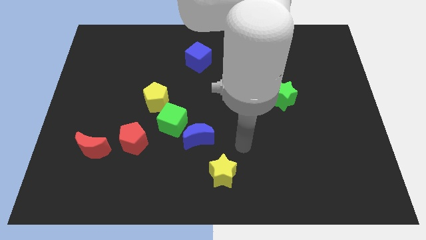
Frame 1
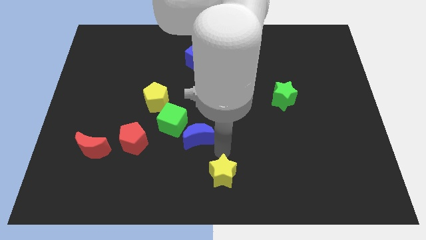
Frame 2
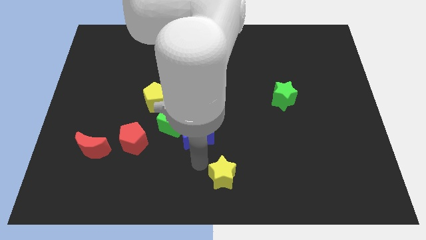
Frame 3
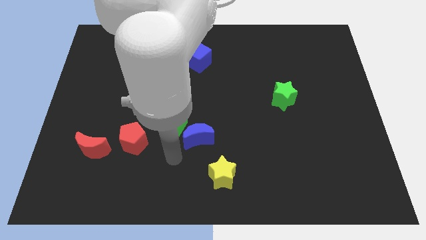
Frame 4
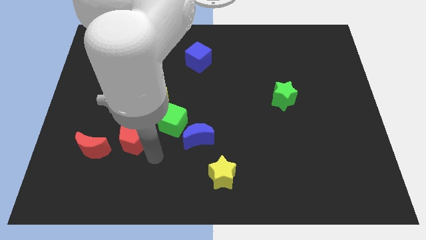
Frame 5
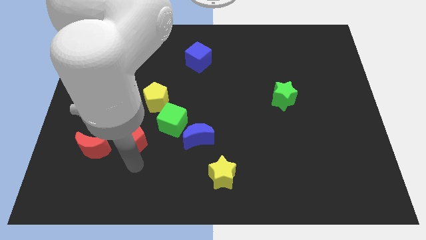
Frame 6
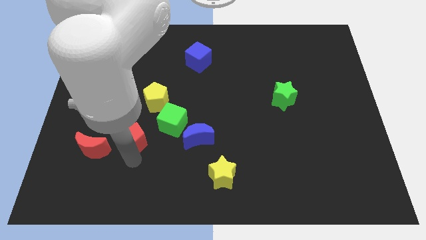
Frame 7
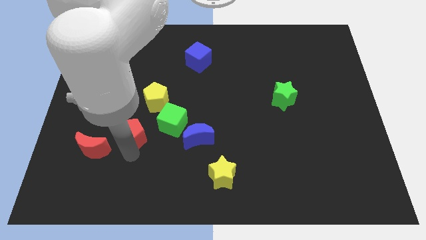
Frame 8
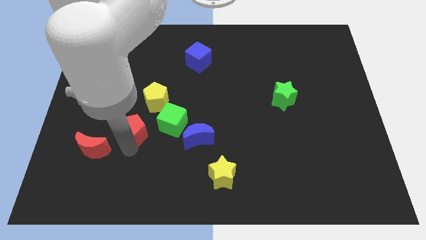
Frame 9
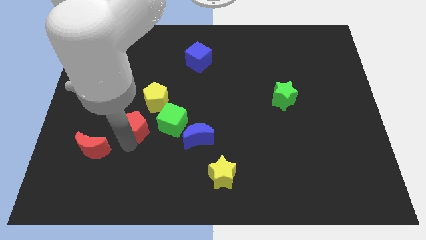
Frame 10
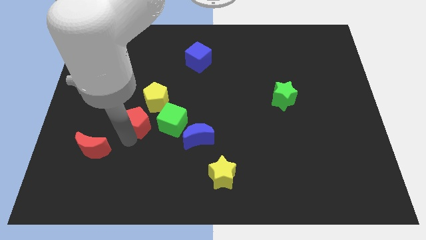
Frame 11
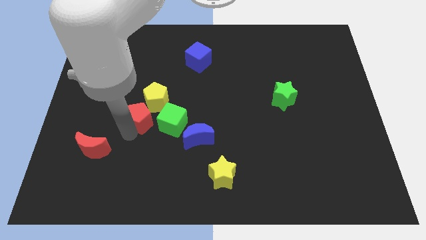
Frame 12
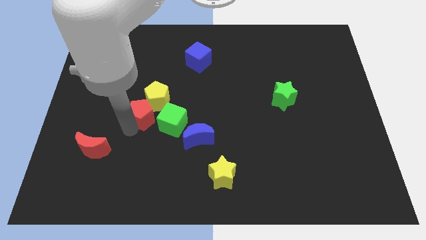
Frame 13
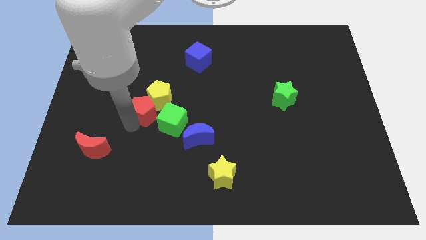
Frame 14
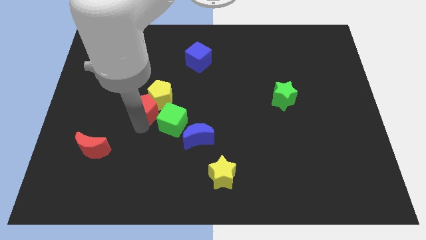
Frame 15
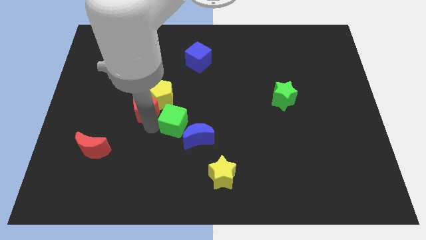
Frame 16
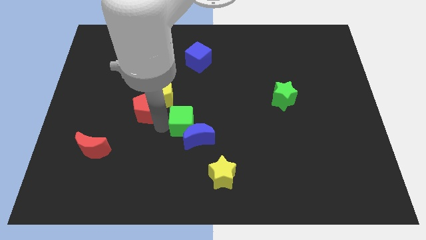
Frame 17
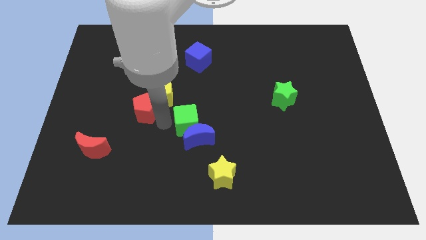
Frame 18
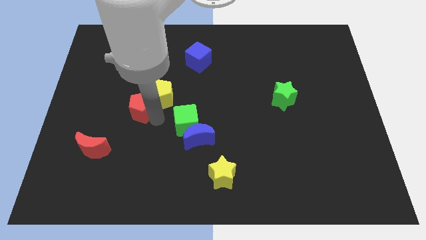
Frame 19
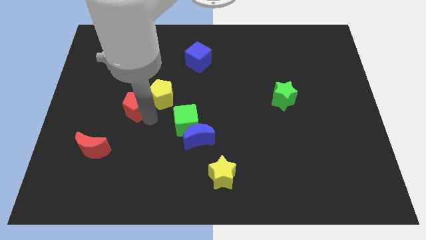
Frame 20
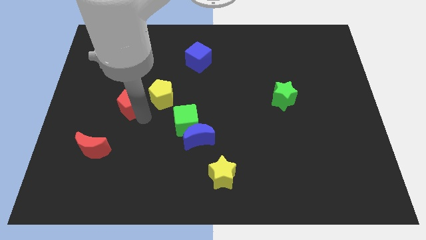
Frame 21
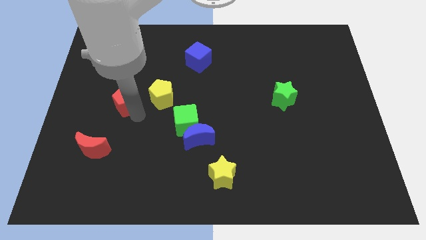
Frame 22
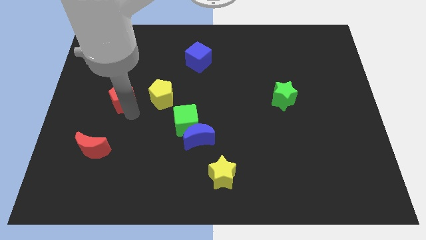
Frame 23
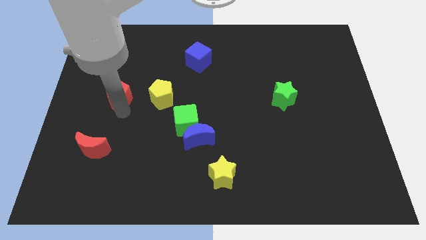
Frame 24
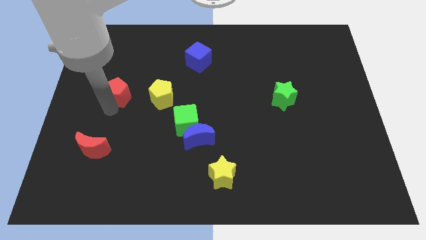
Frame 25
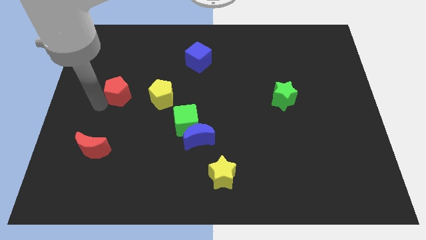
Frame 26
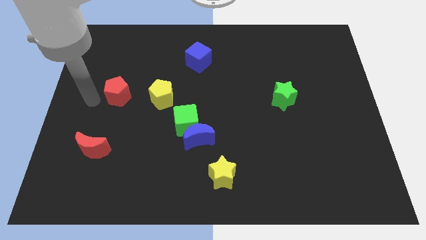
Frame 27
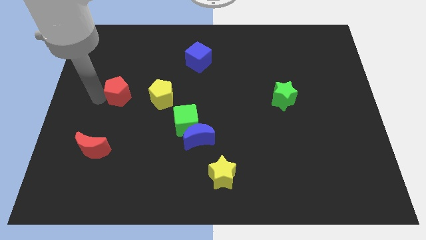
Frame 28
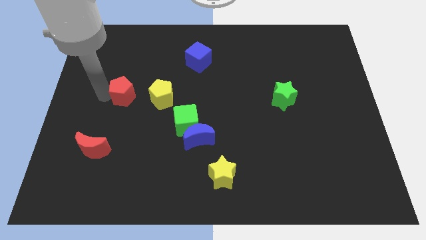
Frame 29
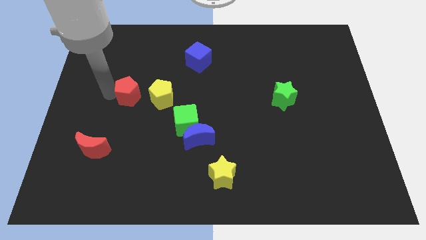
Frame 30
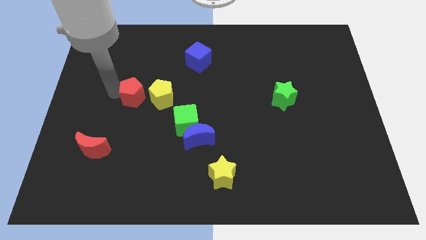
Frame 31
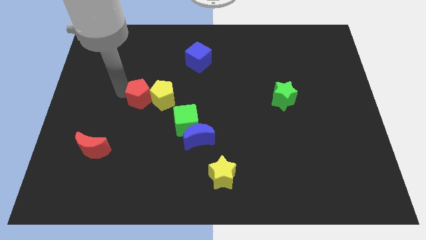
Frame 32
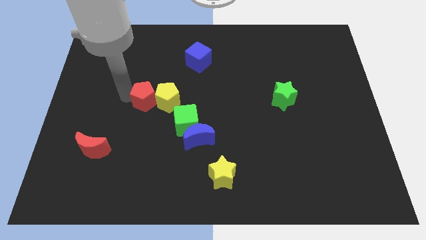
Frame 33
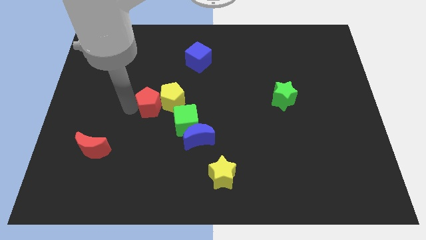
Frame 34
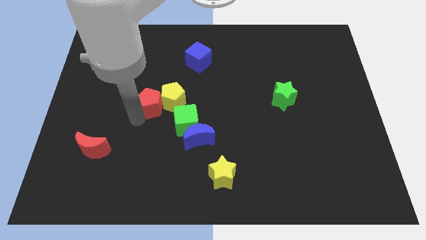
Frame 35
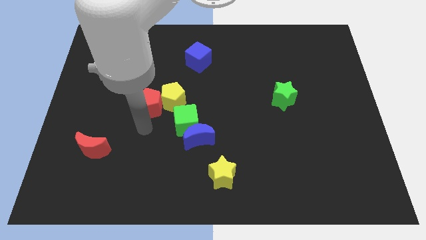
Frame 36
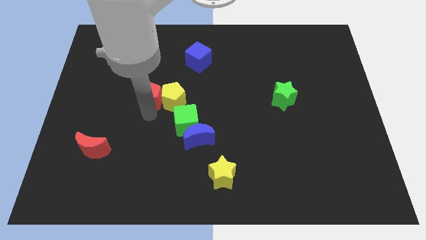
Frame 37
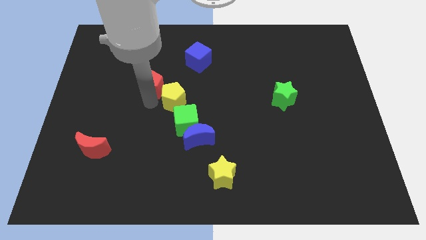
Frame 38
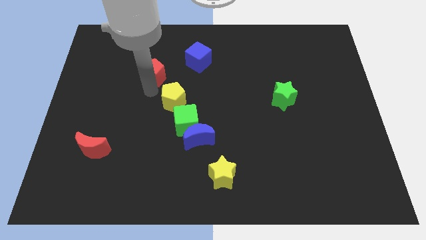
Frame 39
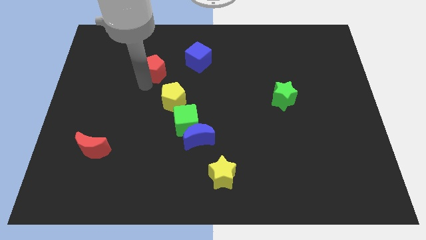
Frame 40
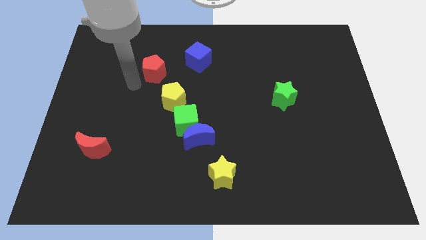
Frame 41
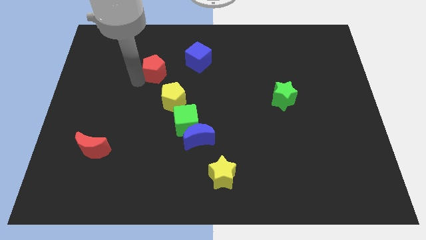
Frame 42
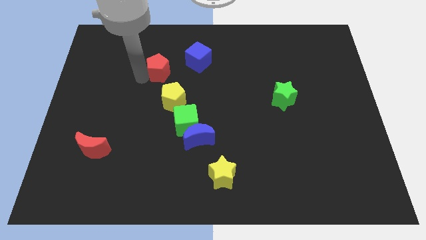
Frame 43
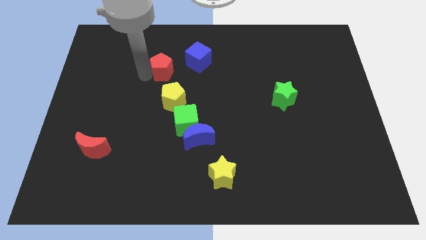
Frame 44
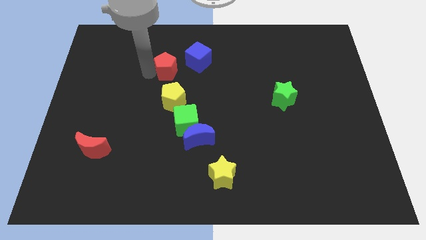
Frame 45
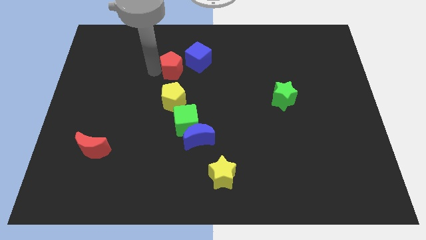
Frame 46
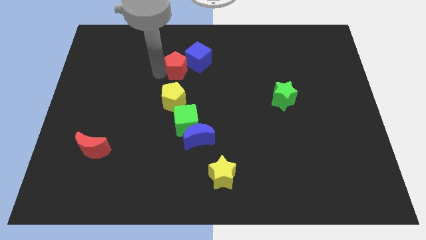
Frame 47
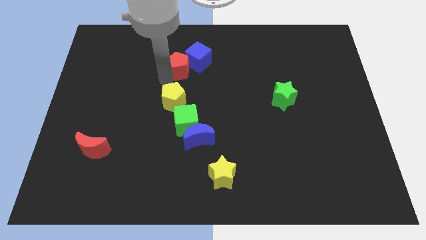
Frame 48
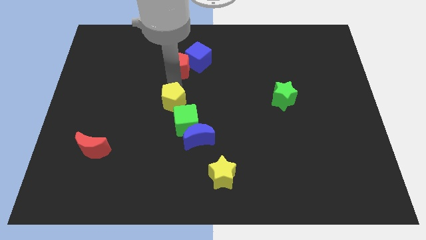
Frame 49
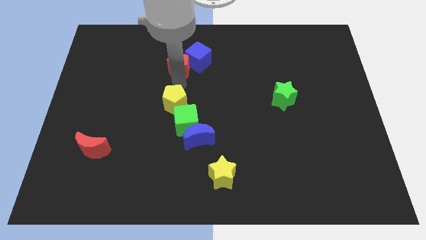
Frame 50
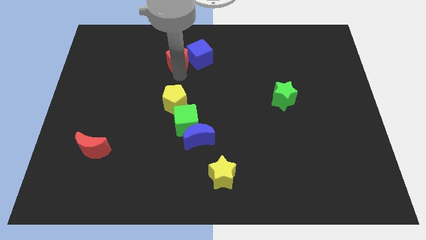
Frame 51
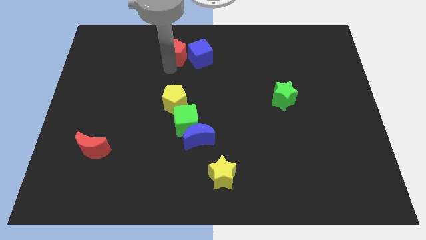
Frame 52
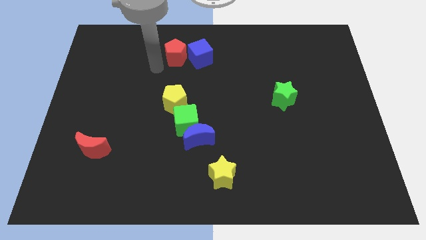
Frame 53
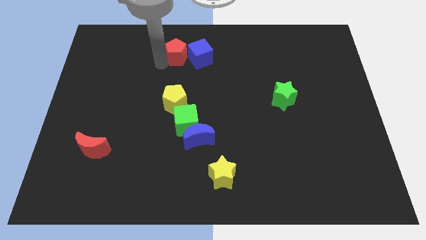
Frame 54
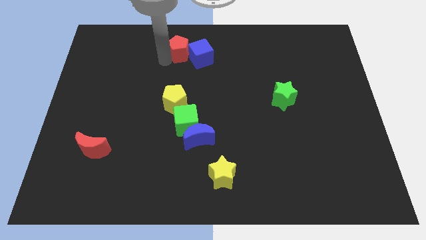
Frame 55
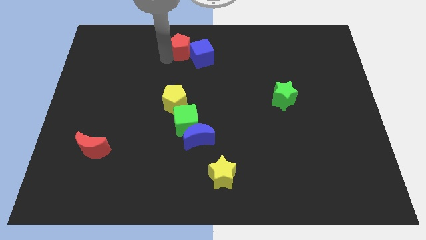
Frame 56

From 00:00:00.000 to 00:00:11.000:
push the red pentagon to the top side
